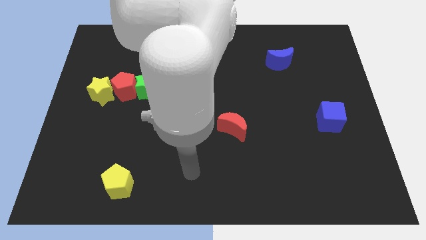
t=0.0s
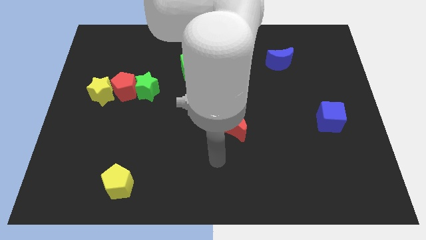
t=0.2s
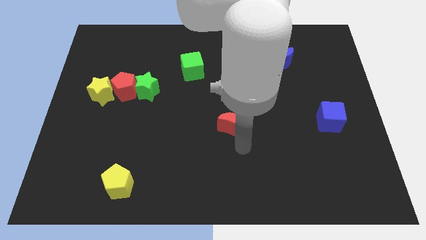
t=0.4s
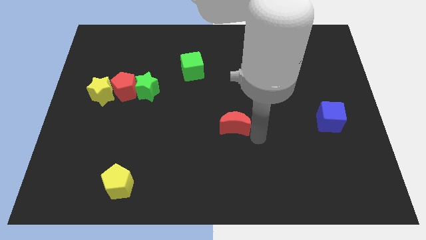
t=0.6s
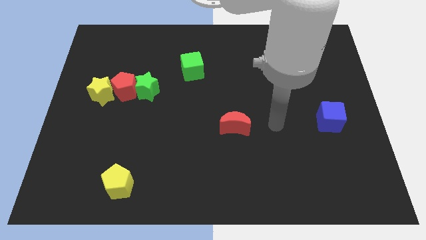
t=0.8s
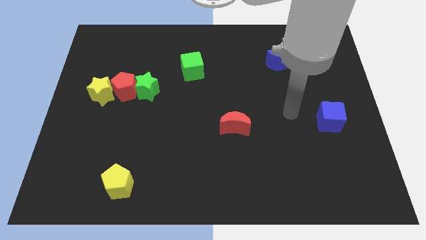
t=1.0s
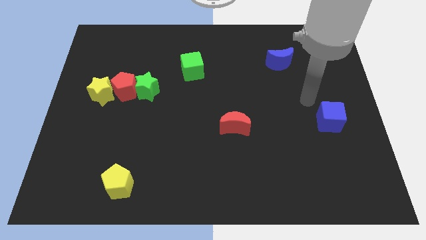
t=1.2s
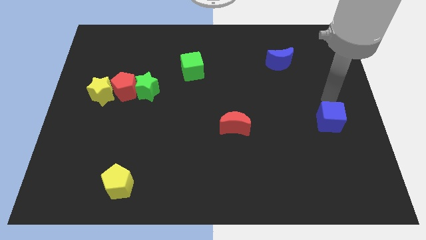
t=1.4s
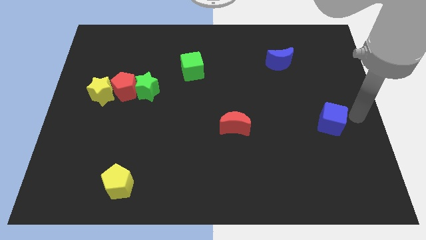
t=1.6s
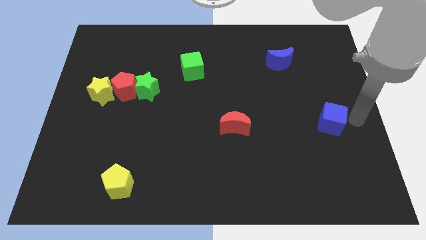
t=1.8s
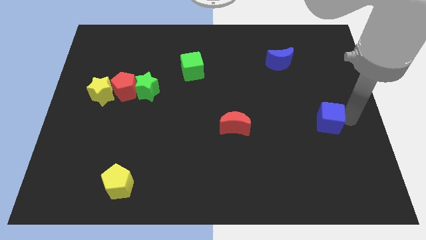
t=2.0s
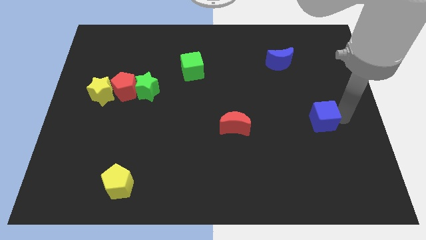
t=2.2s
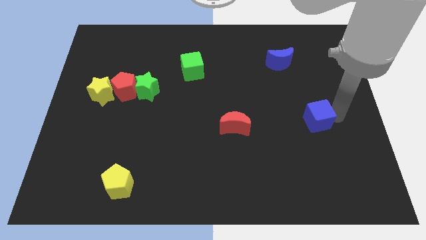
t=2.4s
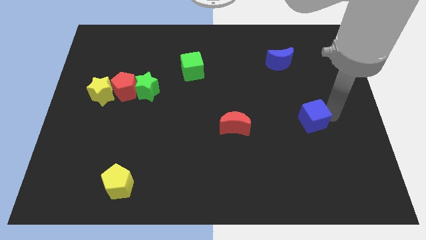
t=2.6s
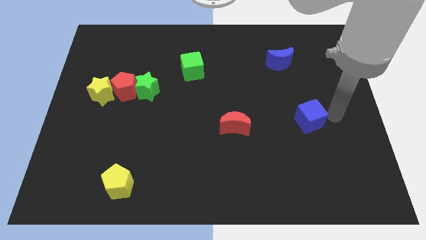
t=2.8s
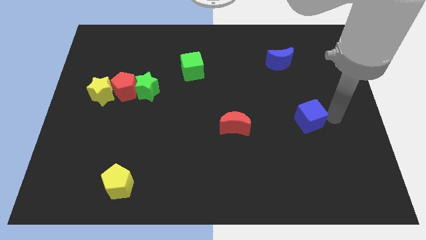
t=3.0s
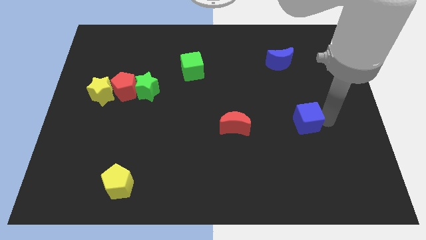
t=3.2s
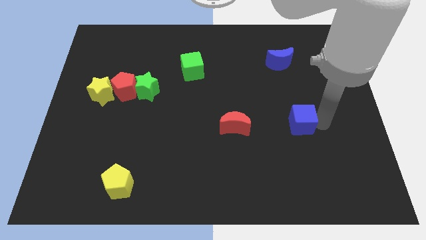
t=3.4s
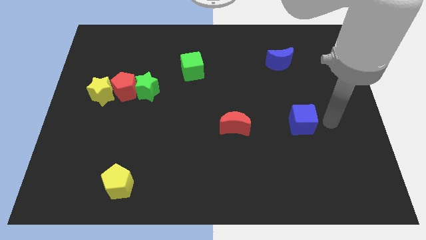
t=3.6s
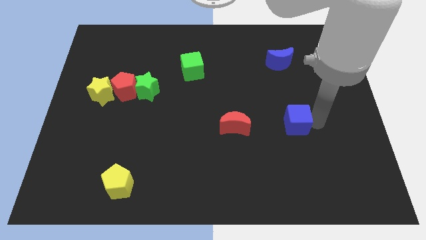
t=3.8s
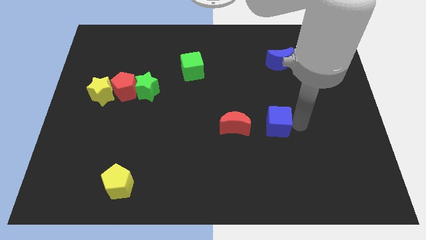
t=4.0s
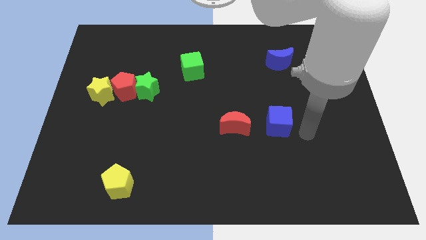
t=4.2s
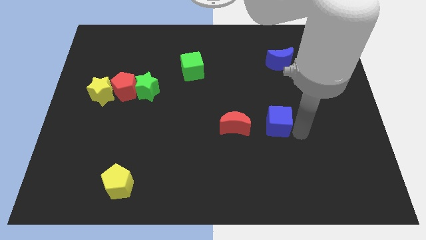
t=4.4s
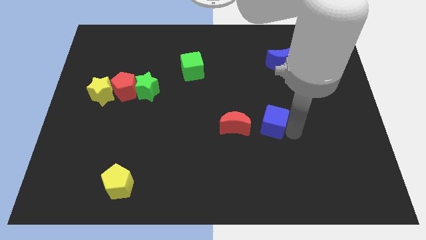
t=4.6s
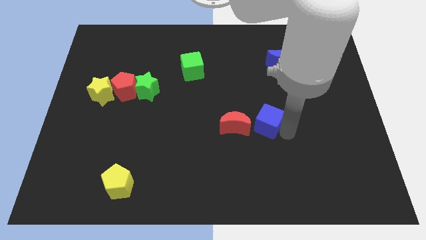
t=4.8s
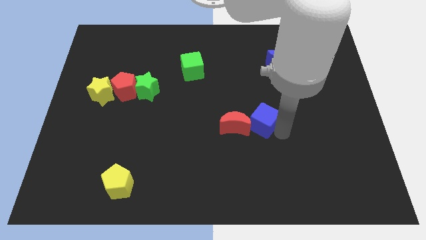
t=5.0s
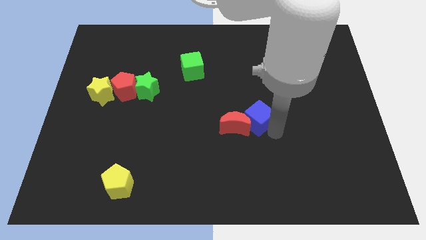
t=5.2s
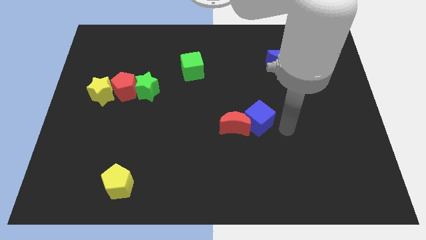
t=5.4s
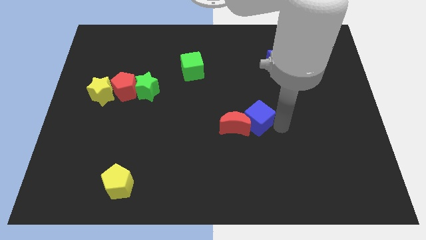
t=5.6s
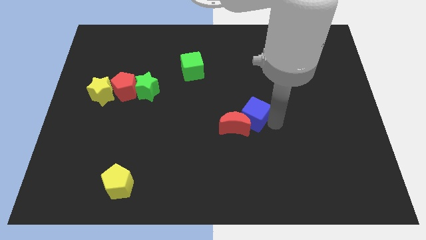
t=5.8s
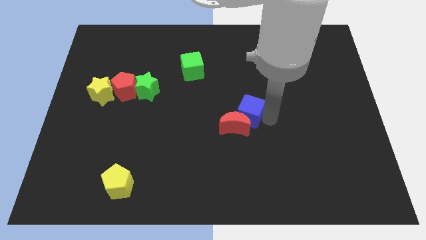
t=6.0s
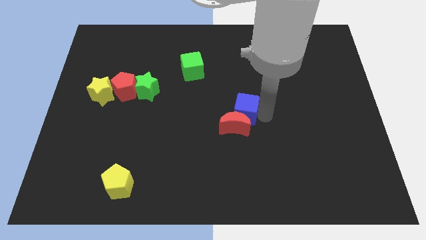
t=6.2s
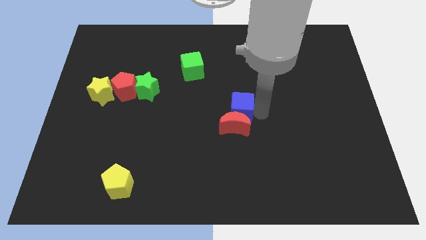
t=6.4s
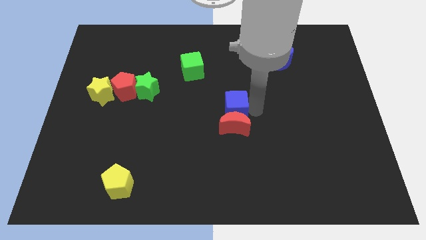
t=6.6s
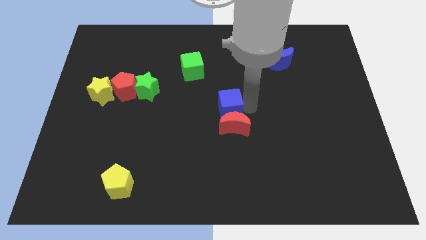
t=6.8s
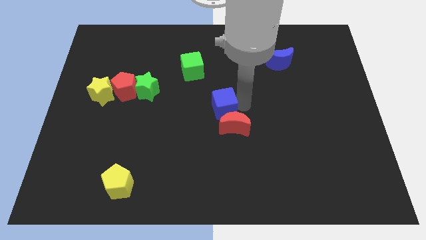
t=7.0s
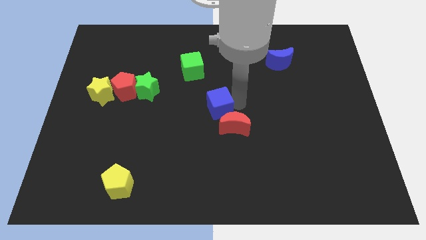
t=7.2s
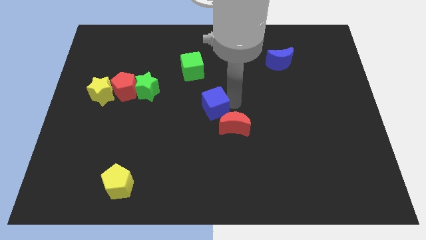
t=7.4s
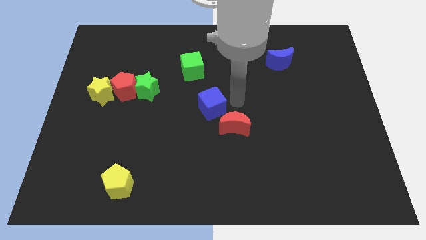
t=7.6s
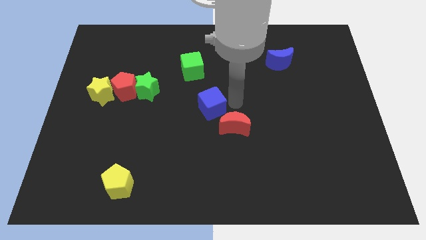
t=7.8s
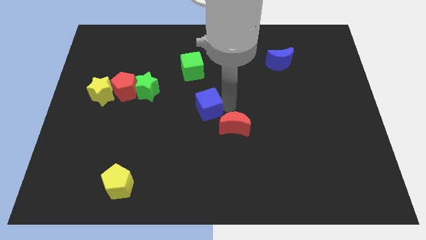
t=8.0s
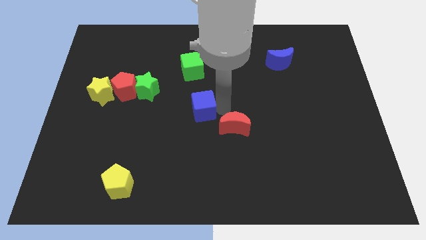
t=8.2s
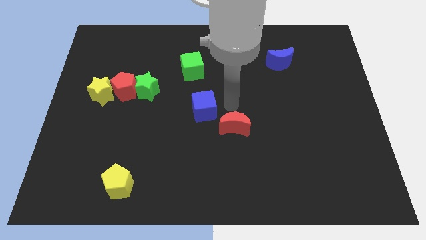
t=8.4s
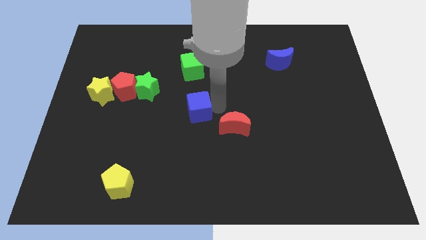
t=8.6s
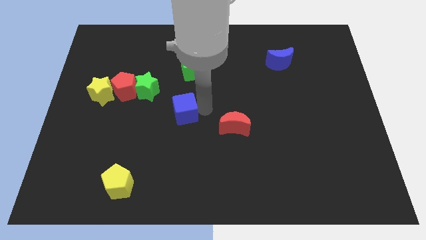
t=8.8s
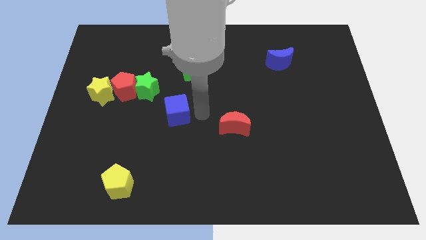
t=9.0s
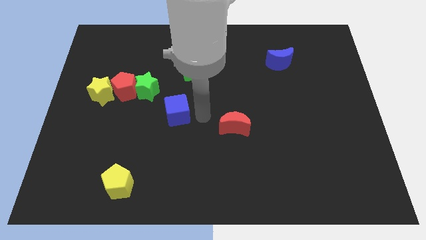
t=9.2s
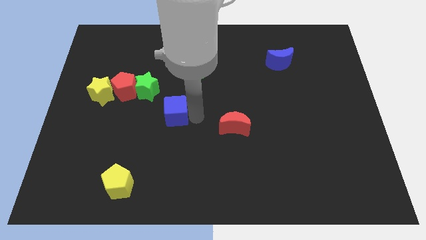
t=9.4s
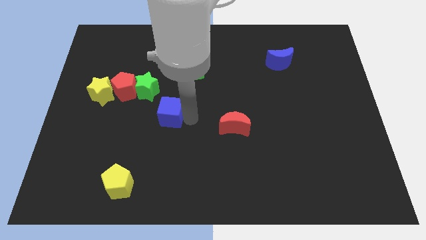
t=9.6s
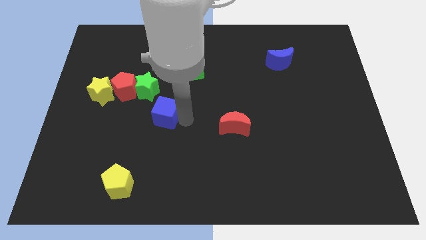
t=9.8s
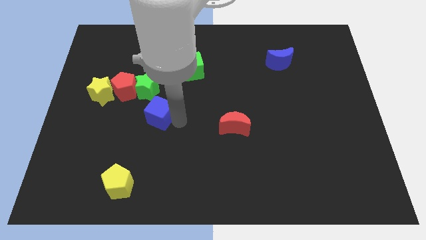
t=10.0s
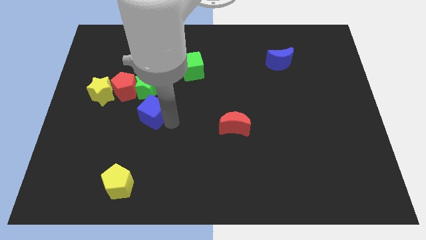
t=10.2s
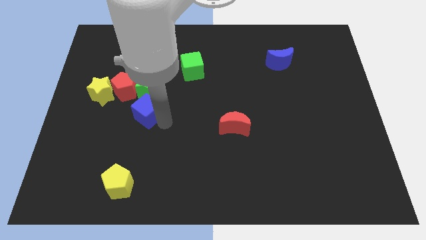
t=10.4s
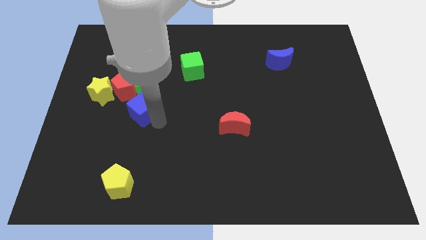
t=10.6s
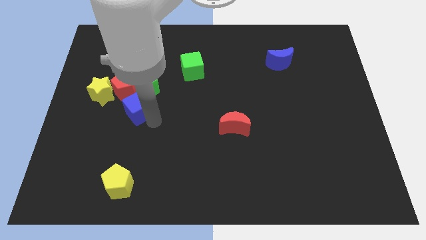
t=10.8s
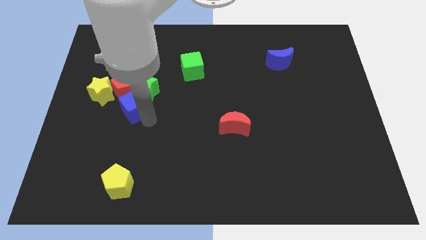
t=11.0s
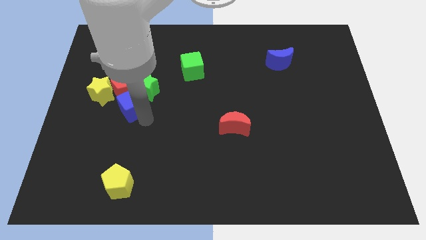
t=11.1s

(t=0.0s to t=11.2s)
push the blue cube to the red pentagon

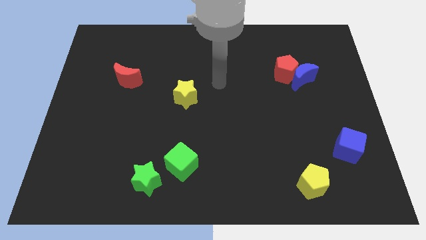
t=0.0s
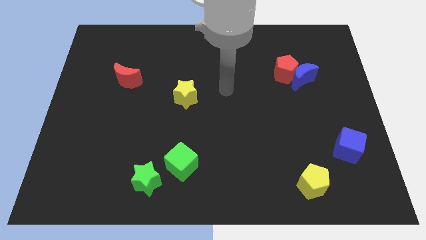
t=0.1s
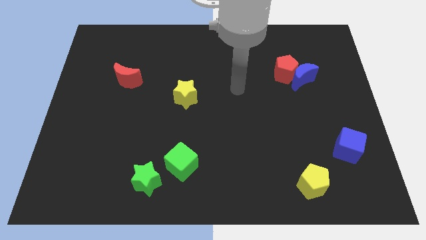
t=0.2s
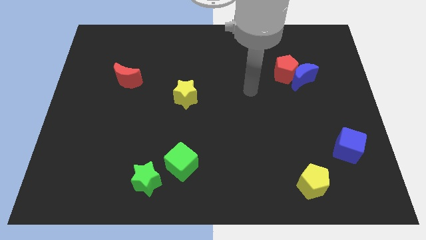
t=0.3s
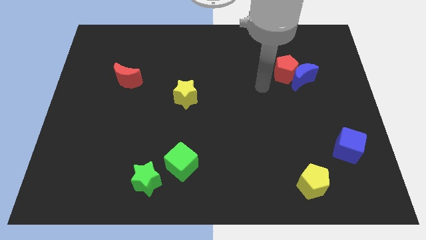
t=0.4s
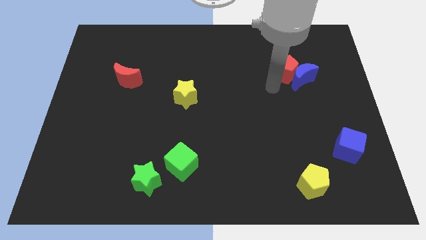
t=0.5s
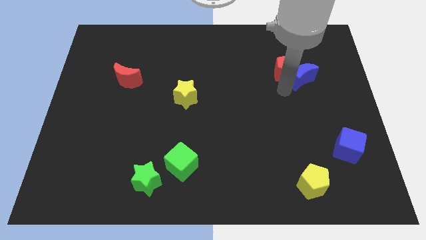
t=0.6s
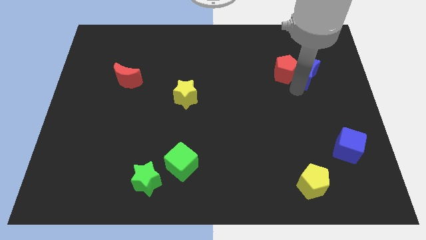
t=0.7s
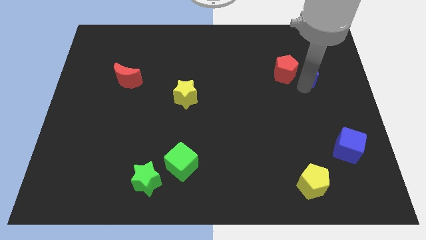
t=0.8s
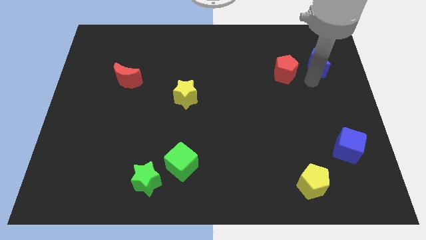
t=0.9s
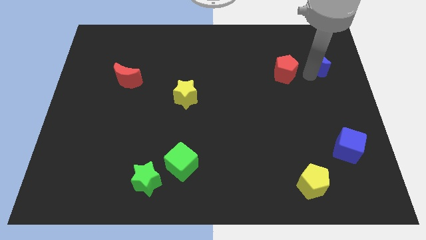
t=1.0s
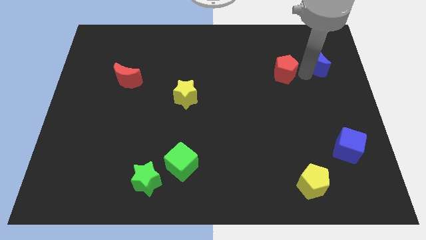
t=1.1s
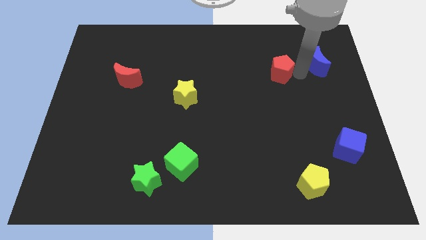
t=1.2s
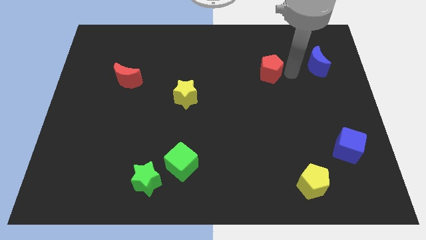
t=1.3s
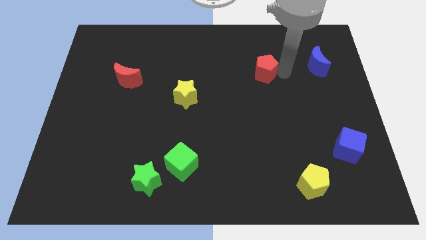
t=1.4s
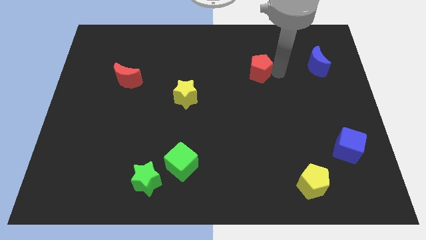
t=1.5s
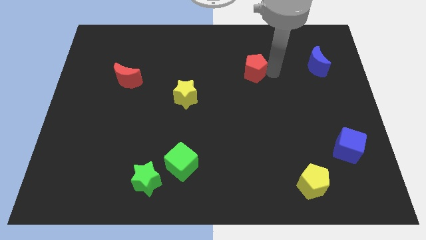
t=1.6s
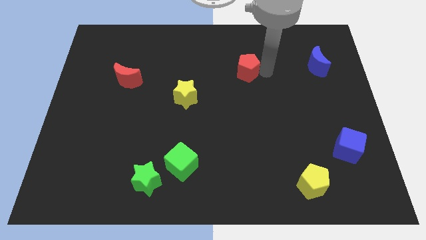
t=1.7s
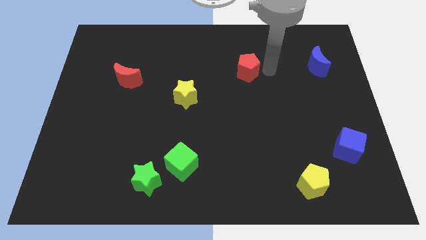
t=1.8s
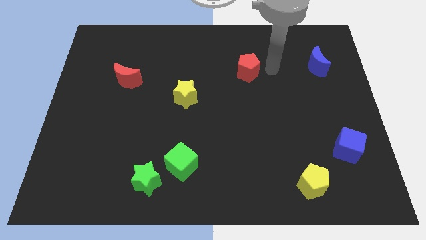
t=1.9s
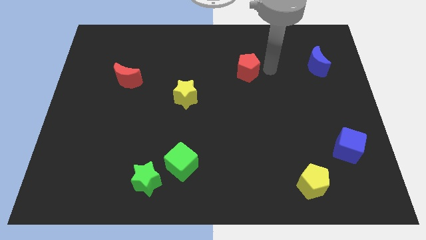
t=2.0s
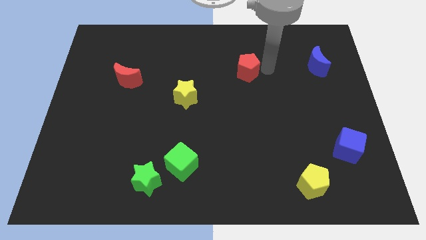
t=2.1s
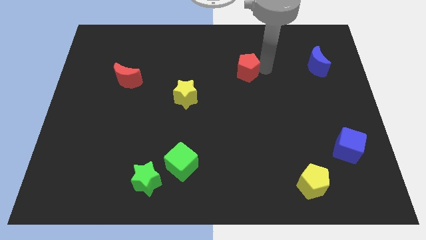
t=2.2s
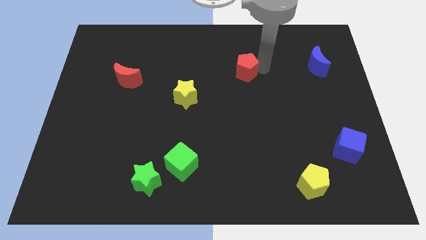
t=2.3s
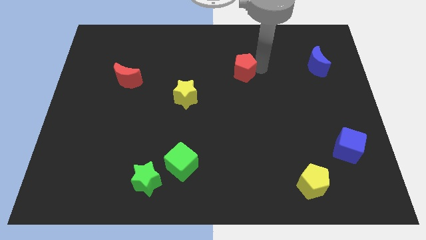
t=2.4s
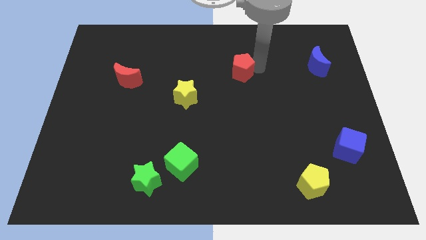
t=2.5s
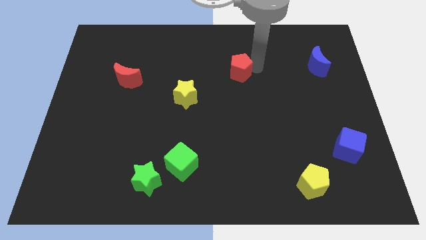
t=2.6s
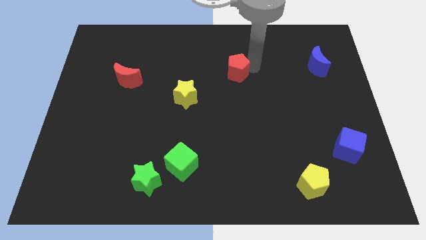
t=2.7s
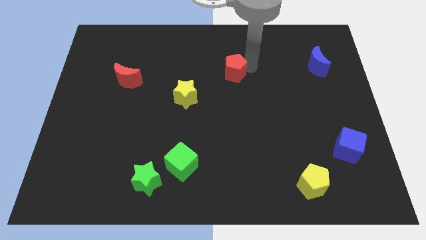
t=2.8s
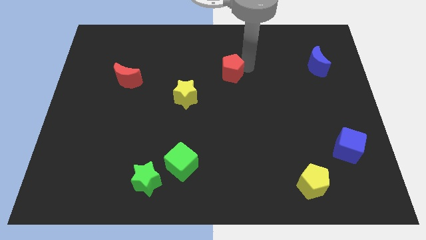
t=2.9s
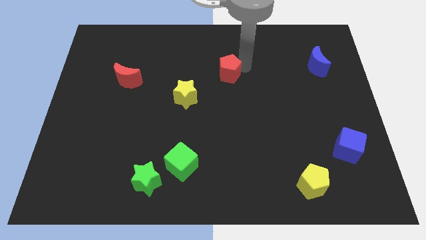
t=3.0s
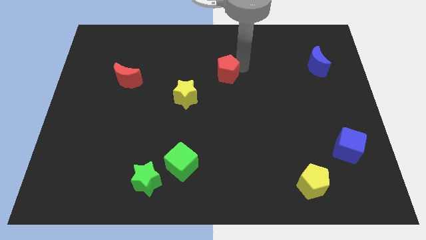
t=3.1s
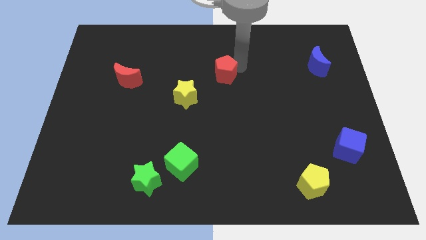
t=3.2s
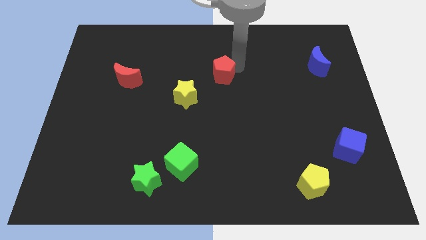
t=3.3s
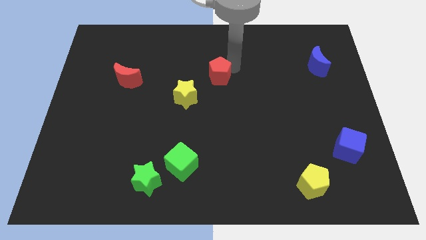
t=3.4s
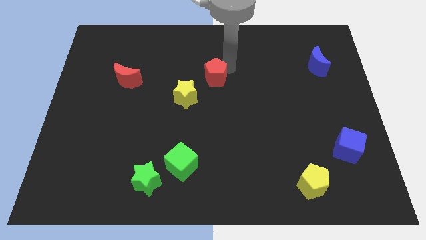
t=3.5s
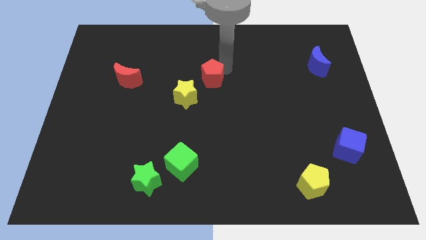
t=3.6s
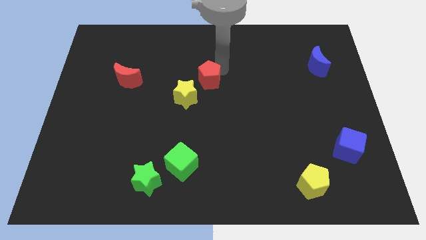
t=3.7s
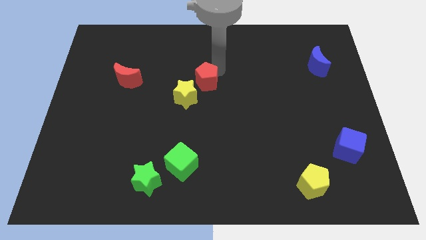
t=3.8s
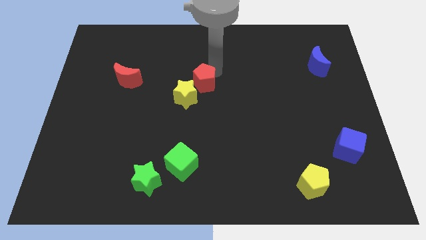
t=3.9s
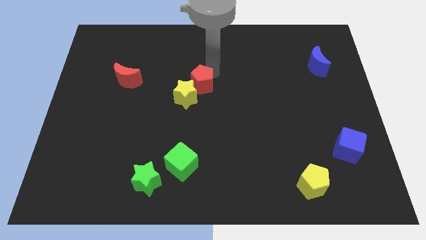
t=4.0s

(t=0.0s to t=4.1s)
slide the red pentagon to the yellow star
